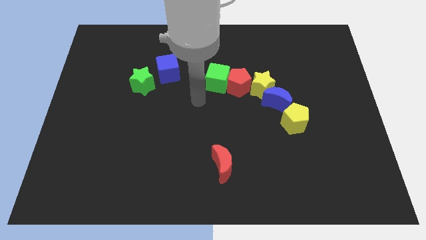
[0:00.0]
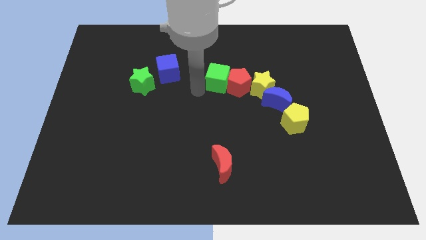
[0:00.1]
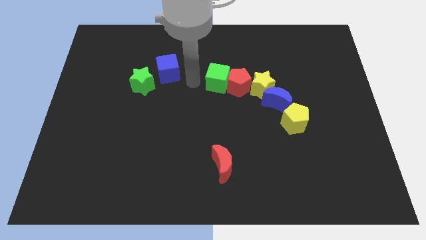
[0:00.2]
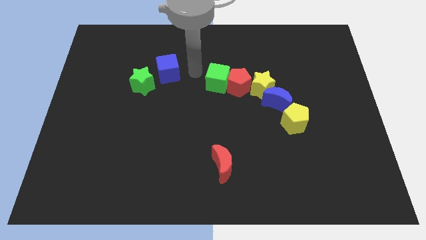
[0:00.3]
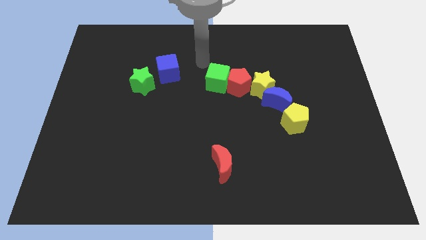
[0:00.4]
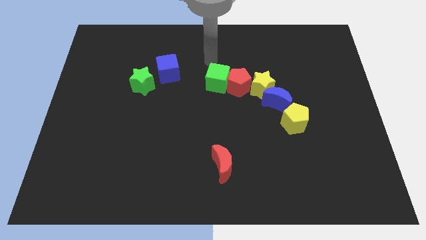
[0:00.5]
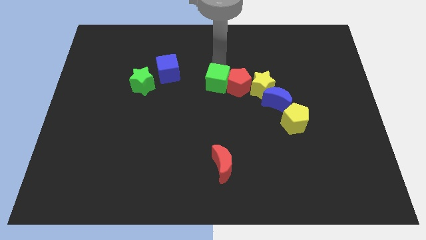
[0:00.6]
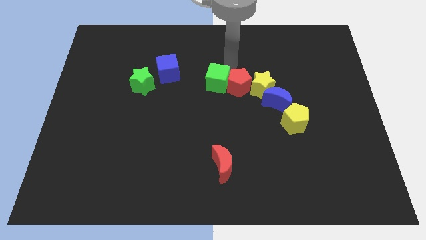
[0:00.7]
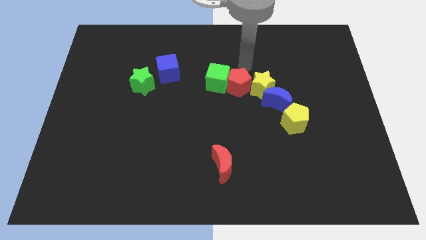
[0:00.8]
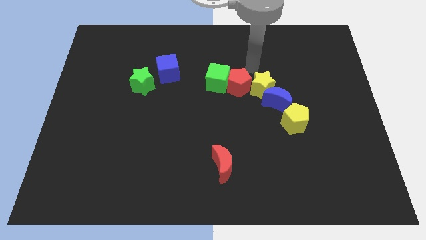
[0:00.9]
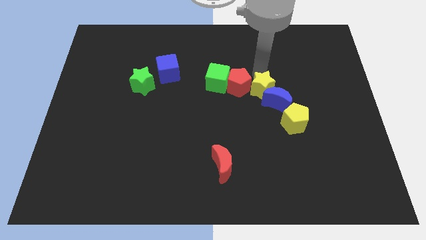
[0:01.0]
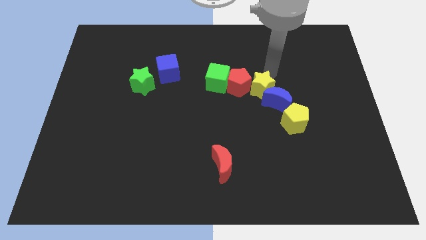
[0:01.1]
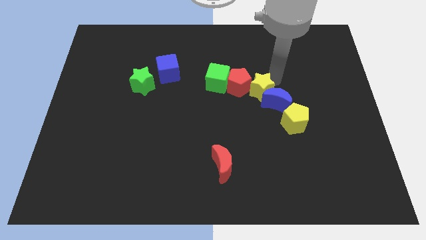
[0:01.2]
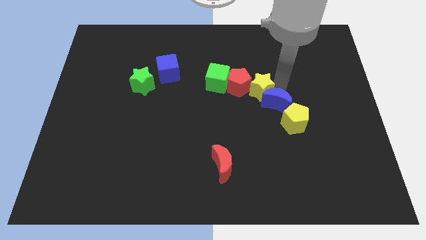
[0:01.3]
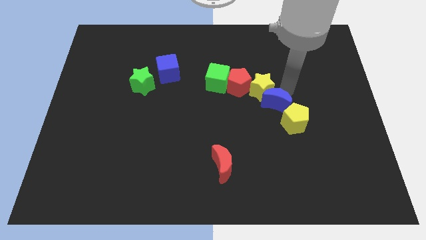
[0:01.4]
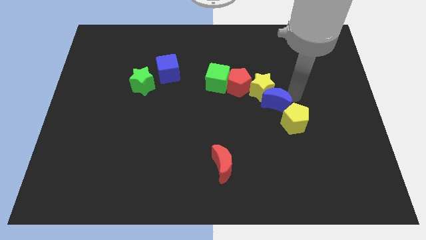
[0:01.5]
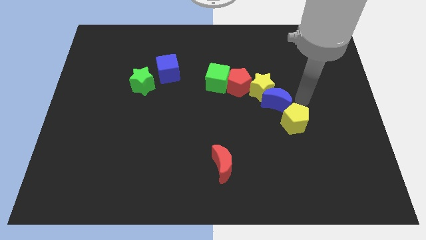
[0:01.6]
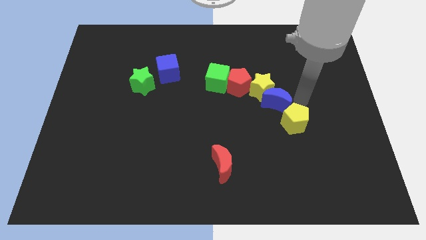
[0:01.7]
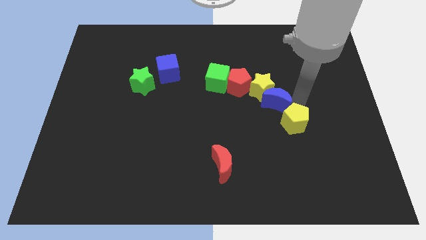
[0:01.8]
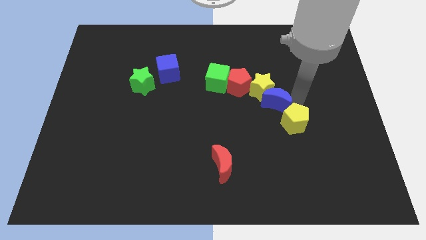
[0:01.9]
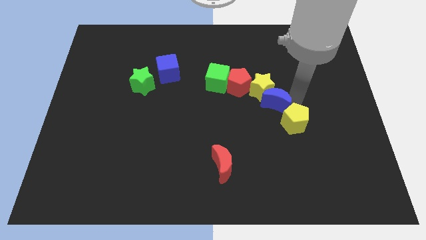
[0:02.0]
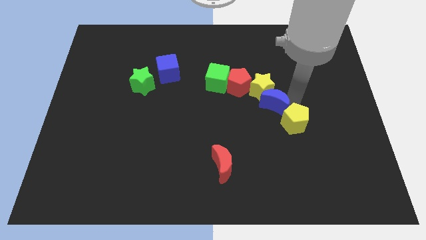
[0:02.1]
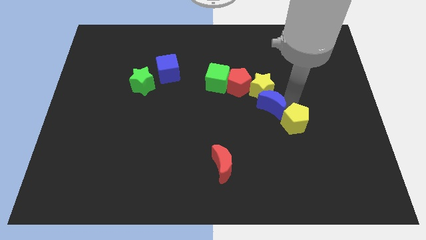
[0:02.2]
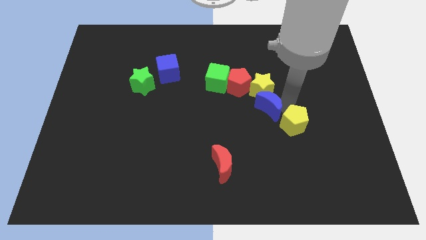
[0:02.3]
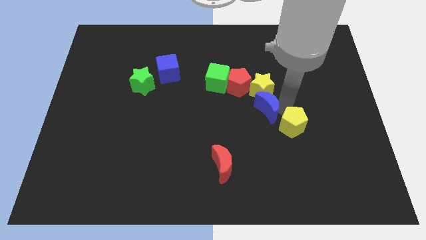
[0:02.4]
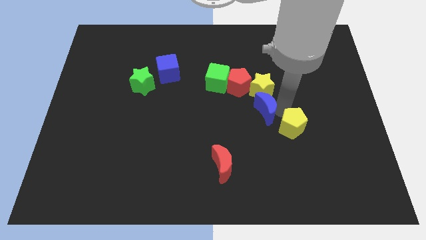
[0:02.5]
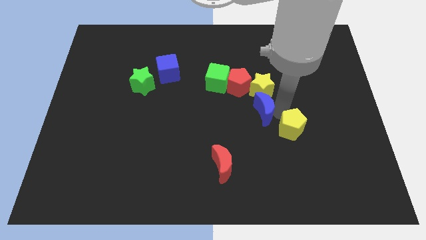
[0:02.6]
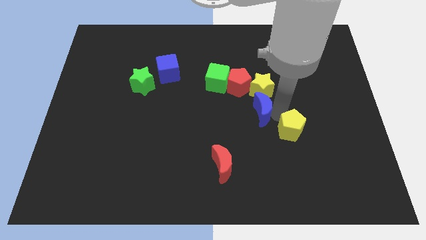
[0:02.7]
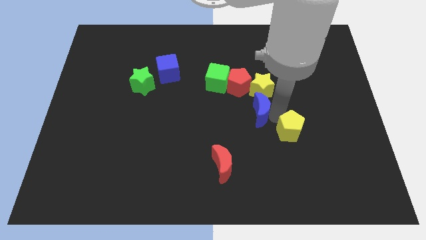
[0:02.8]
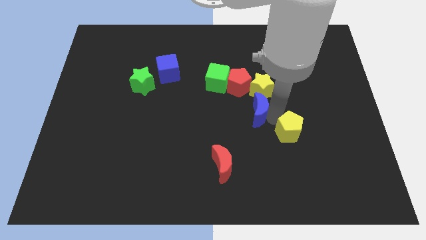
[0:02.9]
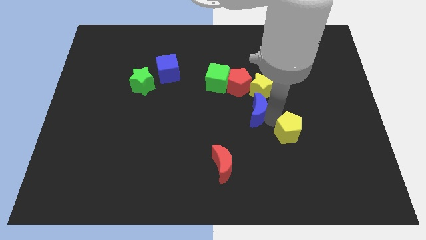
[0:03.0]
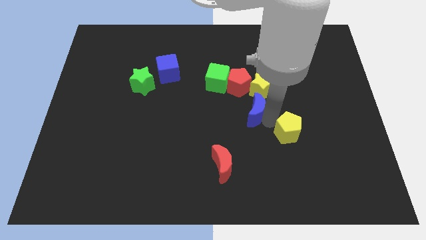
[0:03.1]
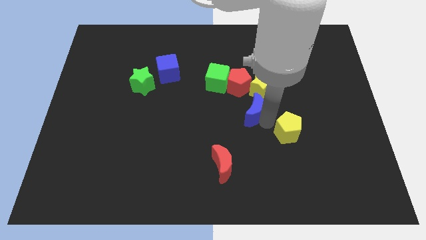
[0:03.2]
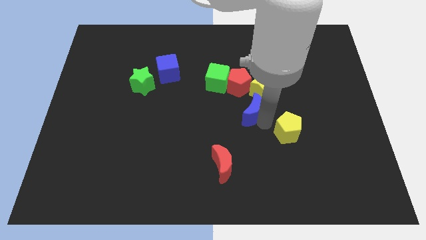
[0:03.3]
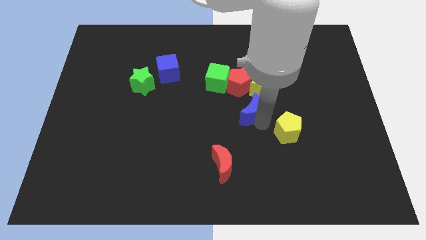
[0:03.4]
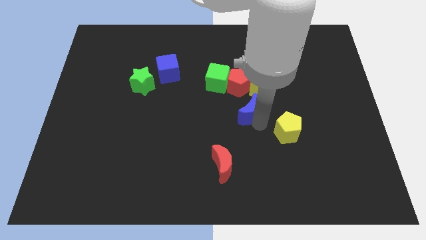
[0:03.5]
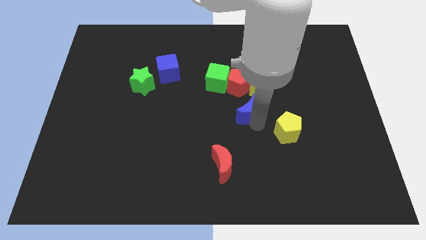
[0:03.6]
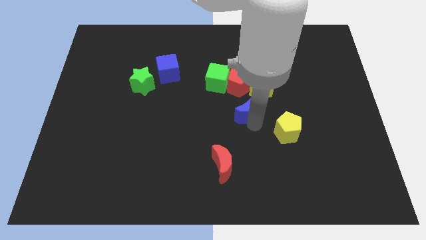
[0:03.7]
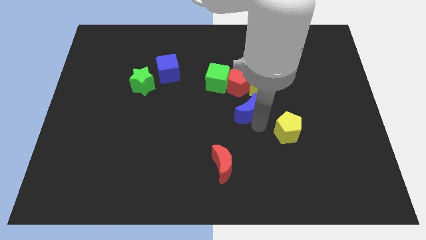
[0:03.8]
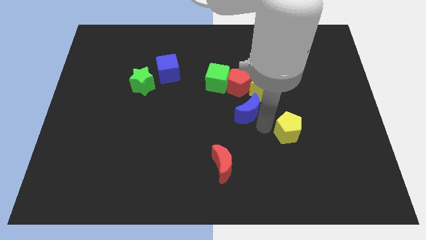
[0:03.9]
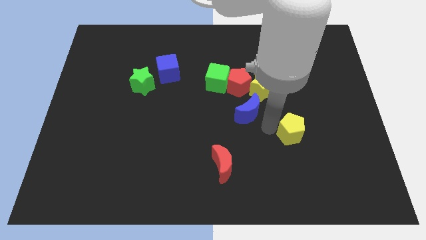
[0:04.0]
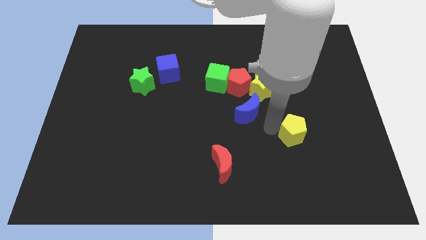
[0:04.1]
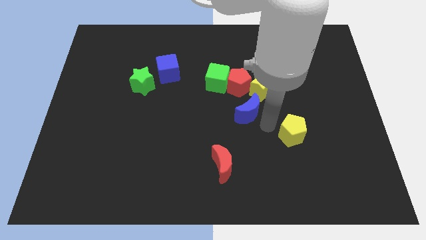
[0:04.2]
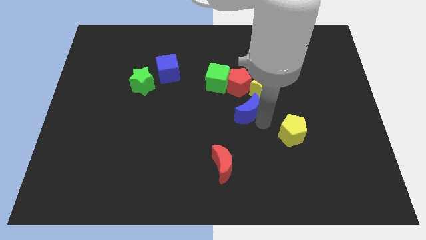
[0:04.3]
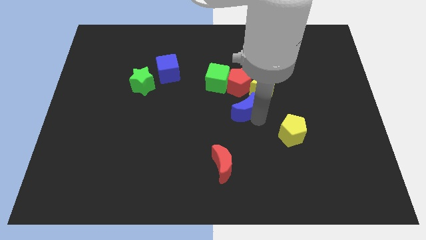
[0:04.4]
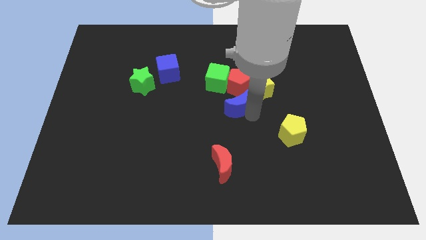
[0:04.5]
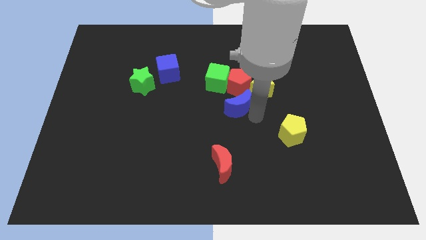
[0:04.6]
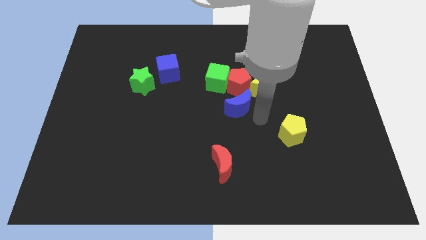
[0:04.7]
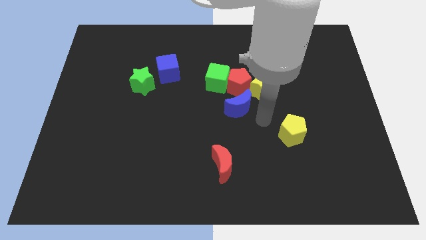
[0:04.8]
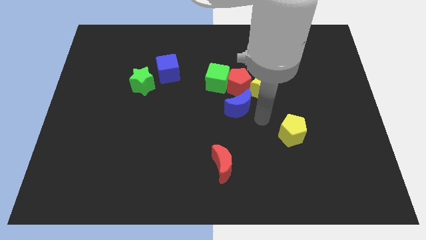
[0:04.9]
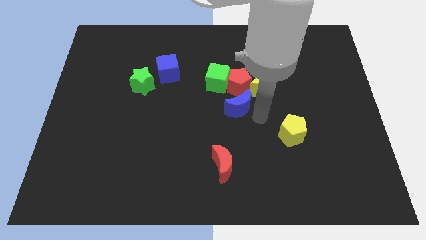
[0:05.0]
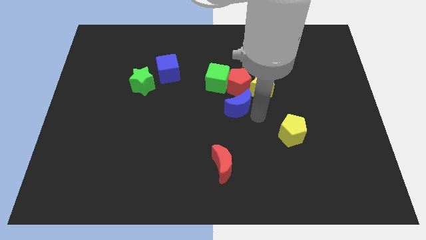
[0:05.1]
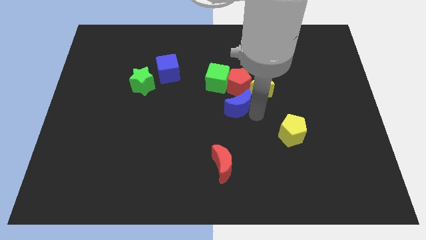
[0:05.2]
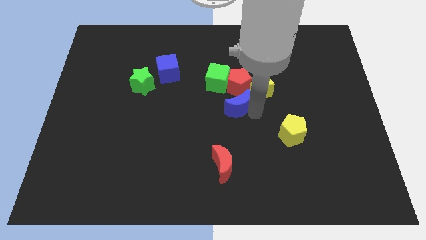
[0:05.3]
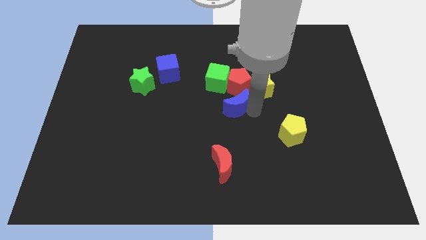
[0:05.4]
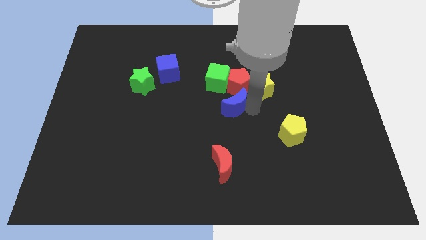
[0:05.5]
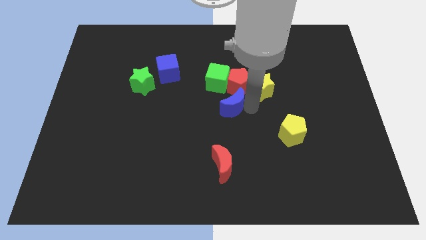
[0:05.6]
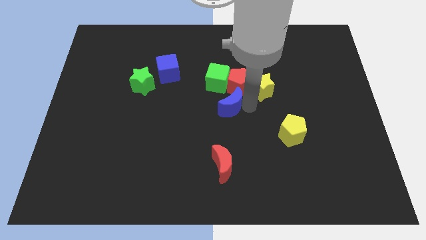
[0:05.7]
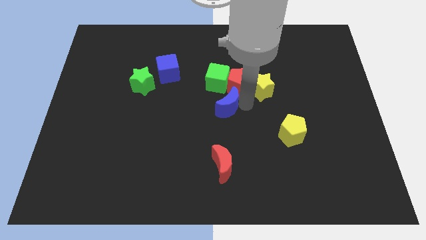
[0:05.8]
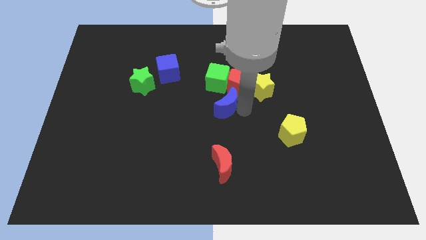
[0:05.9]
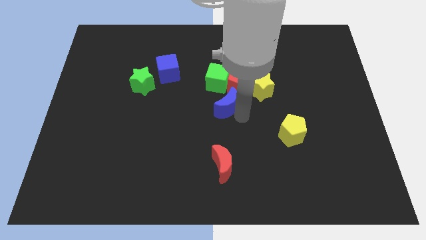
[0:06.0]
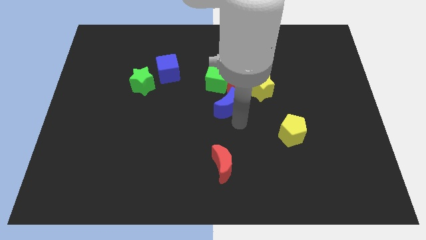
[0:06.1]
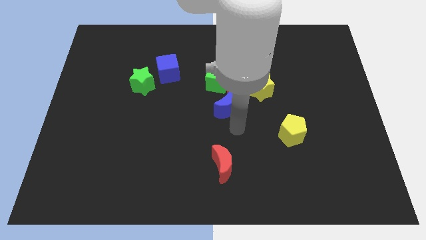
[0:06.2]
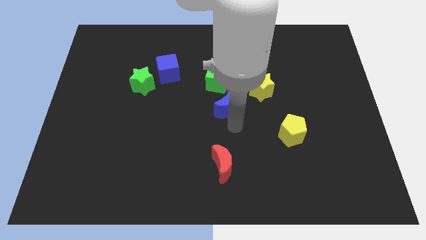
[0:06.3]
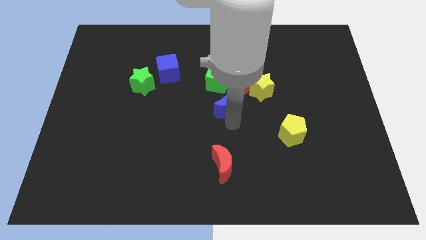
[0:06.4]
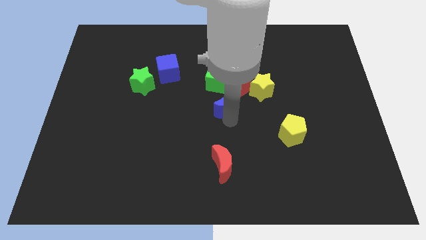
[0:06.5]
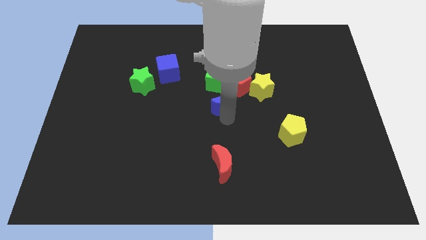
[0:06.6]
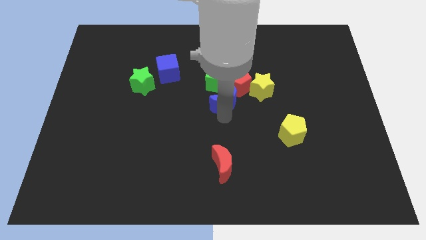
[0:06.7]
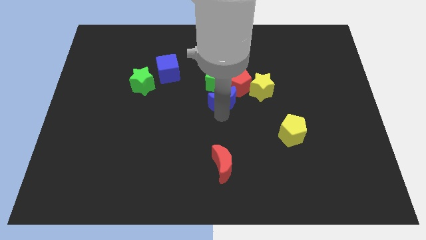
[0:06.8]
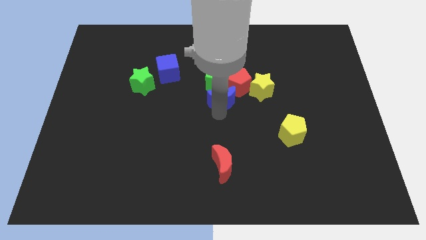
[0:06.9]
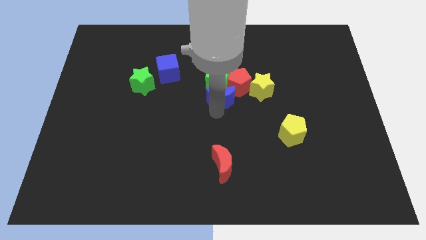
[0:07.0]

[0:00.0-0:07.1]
put the blue moon close to the green cube
